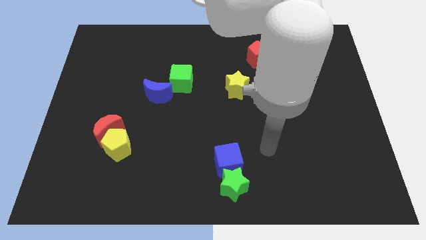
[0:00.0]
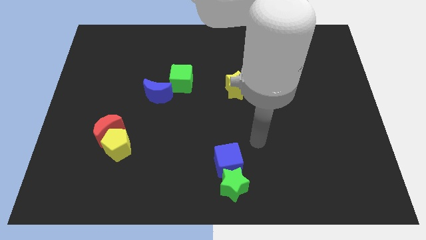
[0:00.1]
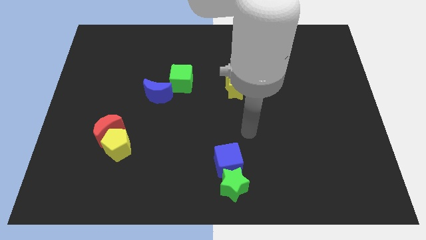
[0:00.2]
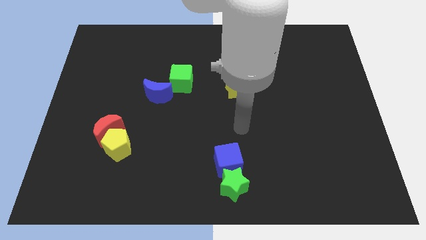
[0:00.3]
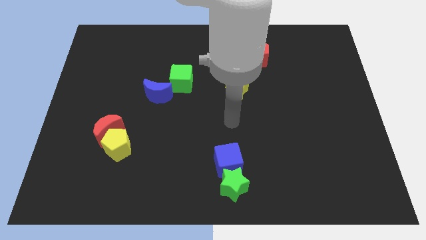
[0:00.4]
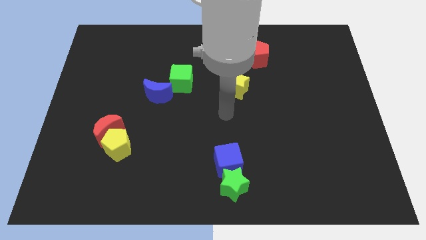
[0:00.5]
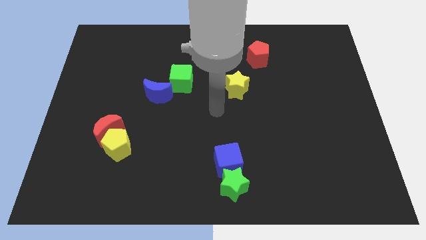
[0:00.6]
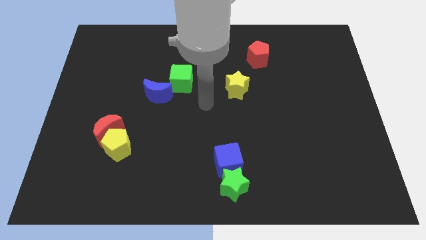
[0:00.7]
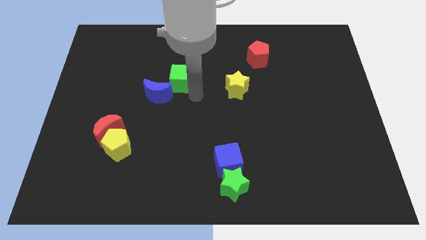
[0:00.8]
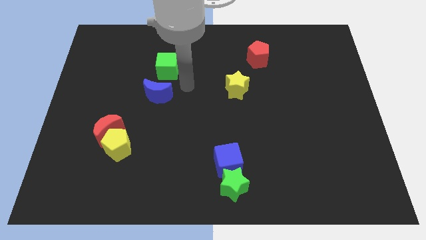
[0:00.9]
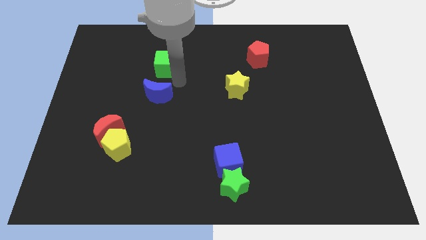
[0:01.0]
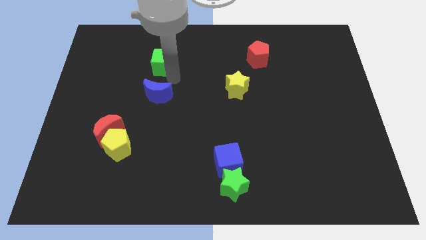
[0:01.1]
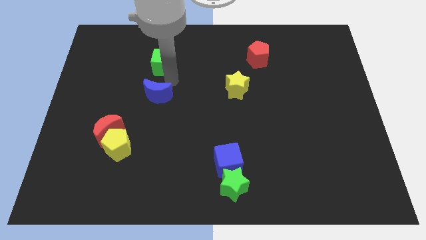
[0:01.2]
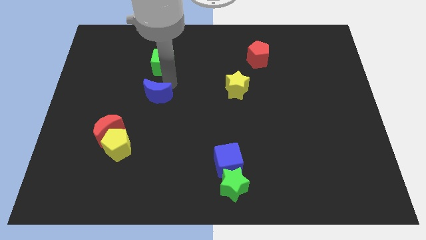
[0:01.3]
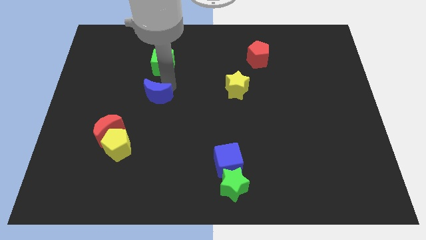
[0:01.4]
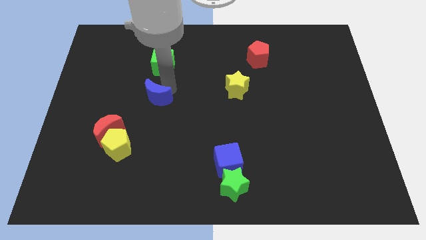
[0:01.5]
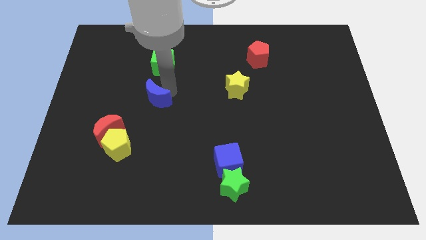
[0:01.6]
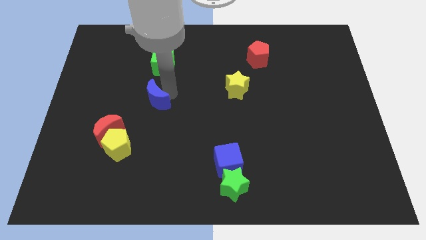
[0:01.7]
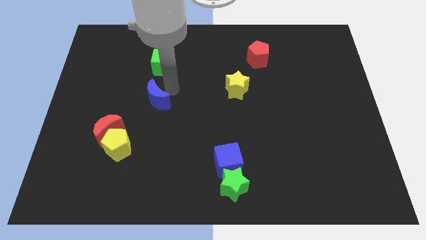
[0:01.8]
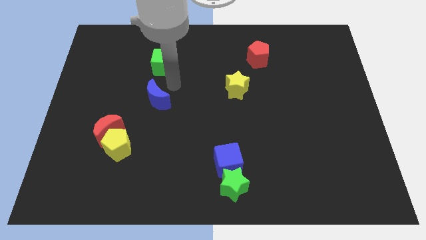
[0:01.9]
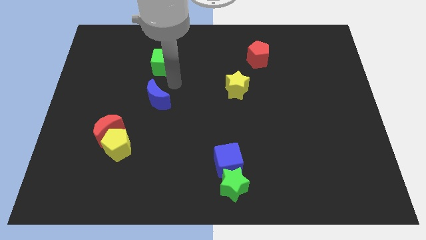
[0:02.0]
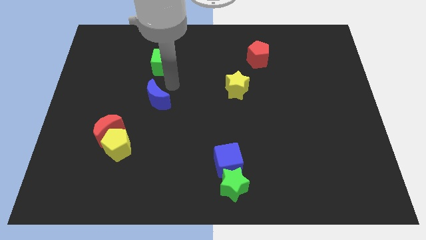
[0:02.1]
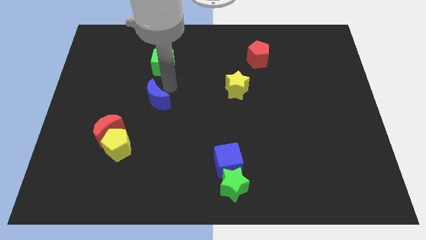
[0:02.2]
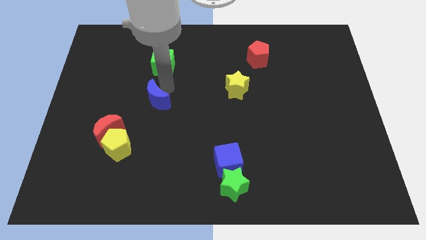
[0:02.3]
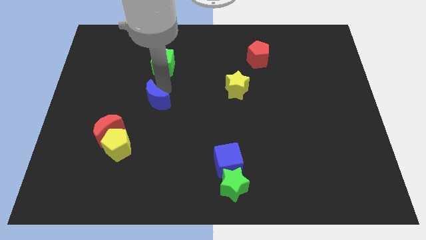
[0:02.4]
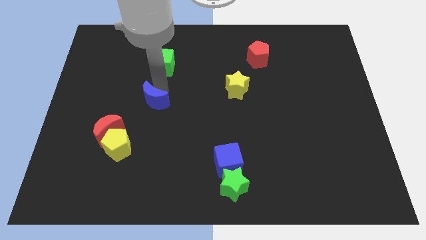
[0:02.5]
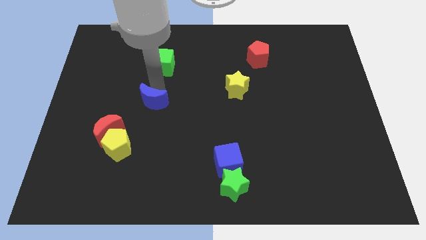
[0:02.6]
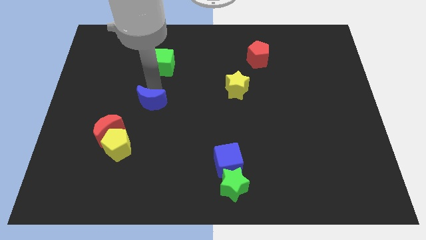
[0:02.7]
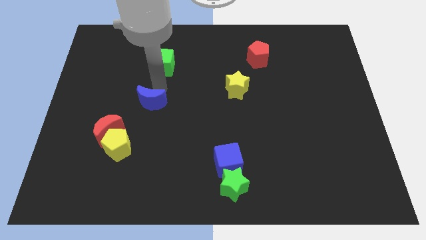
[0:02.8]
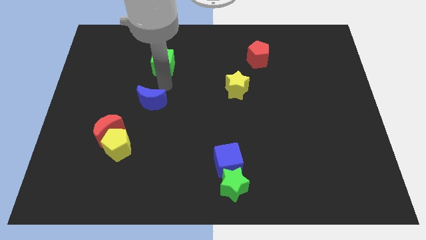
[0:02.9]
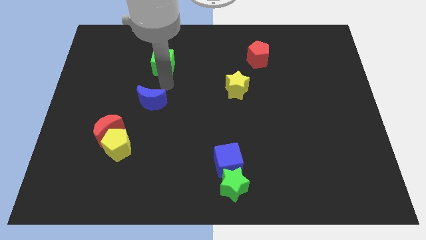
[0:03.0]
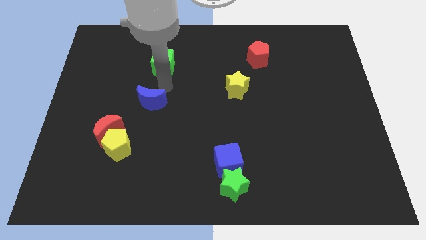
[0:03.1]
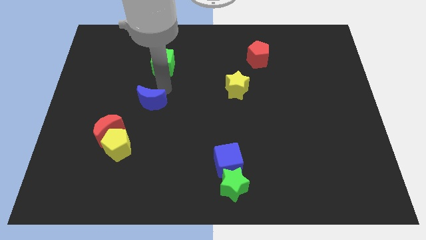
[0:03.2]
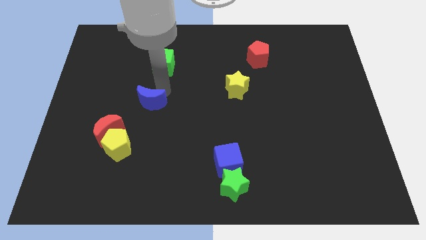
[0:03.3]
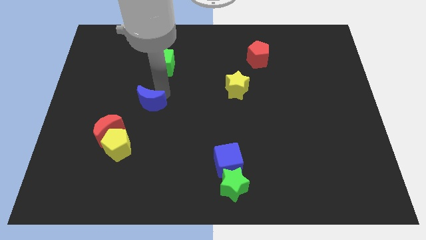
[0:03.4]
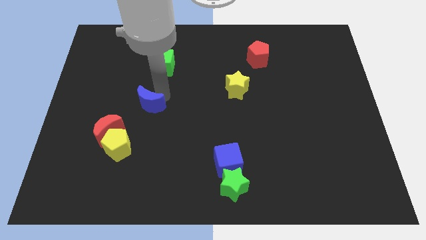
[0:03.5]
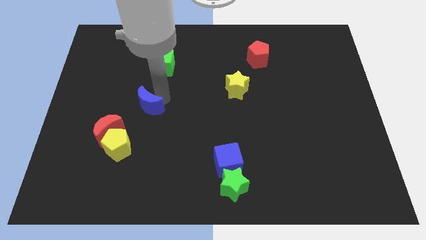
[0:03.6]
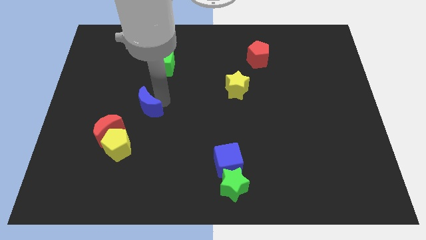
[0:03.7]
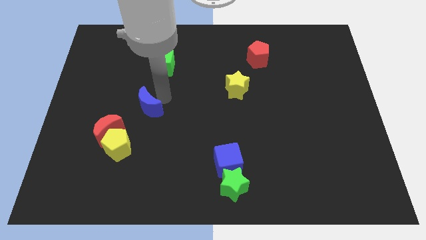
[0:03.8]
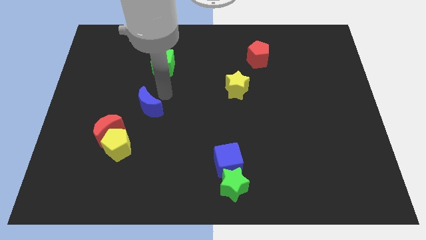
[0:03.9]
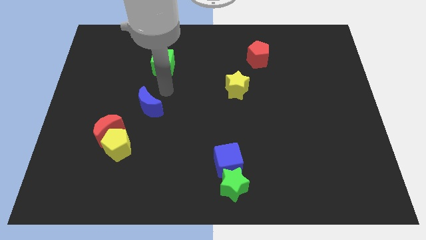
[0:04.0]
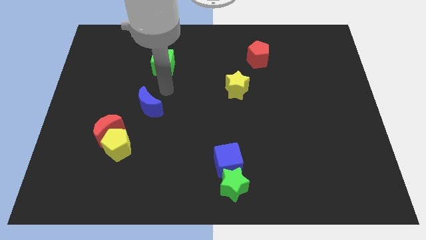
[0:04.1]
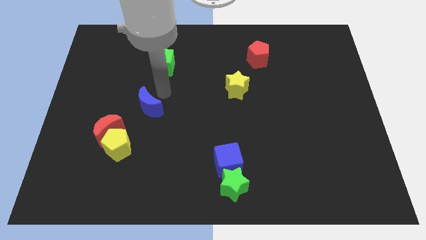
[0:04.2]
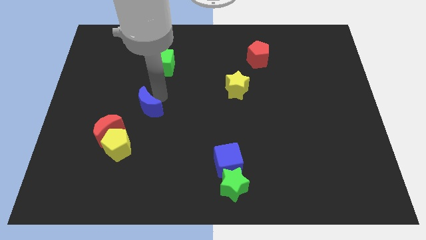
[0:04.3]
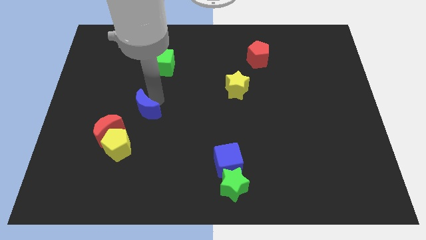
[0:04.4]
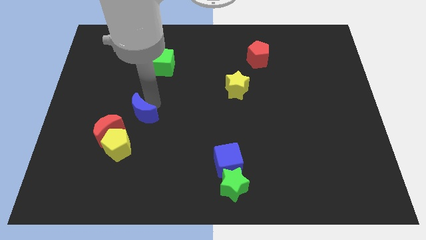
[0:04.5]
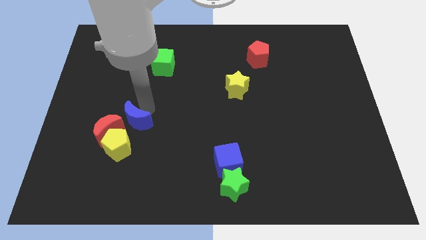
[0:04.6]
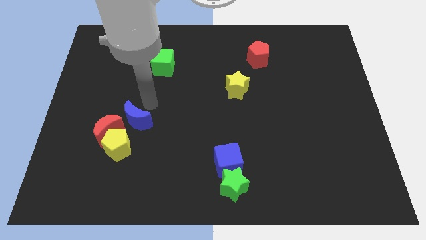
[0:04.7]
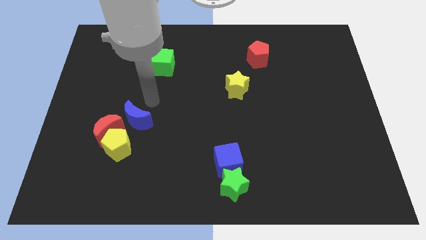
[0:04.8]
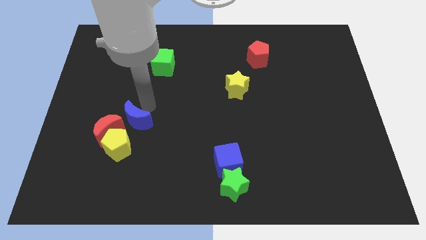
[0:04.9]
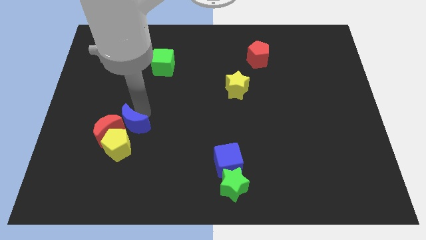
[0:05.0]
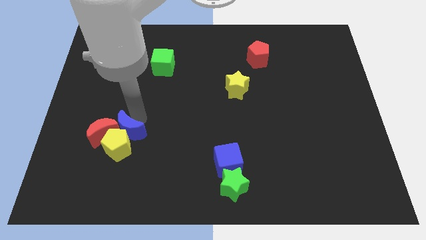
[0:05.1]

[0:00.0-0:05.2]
slide the blue moon close to the yellow pentagon

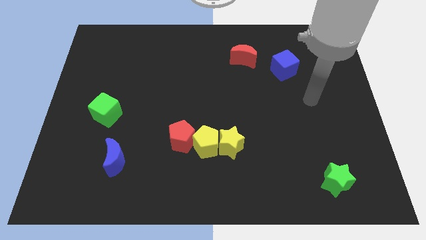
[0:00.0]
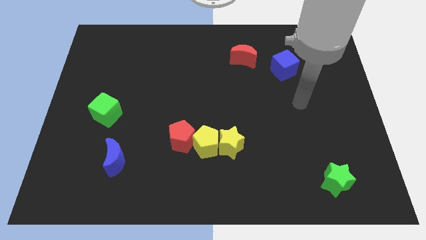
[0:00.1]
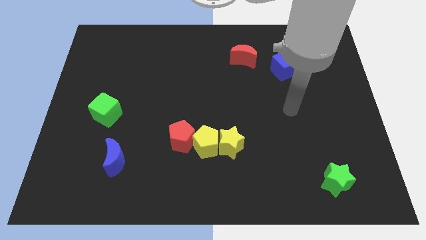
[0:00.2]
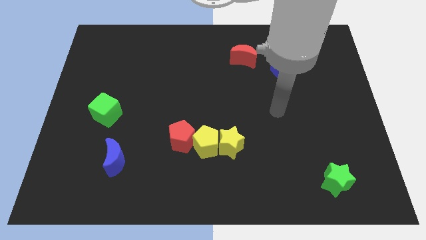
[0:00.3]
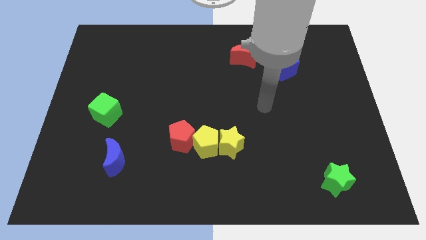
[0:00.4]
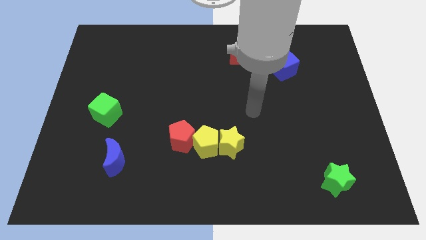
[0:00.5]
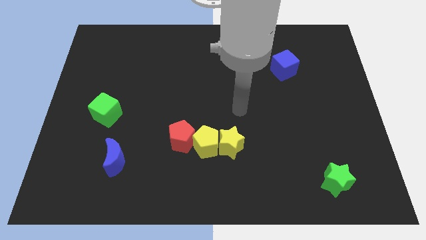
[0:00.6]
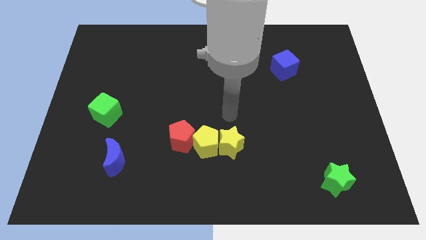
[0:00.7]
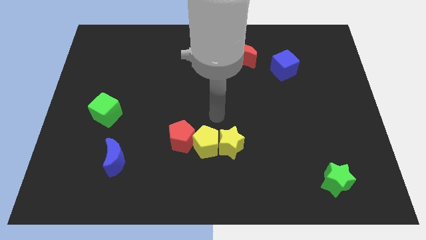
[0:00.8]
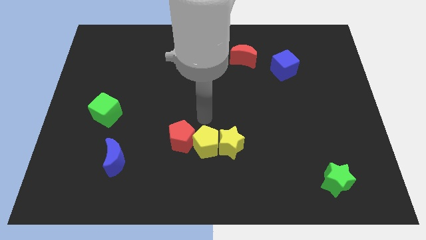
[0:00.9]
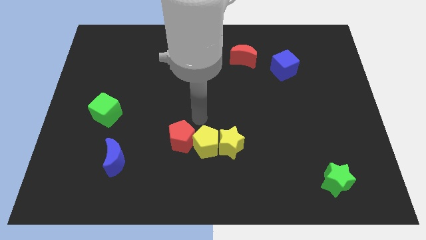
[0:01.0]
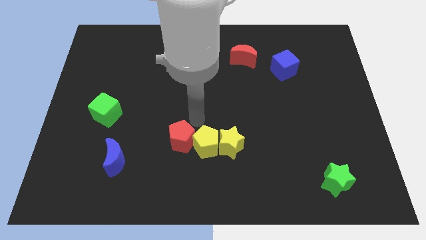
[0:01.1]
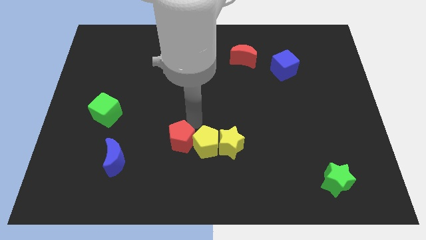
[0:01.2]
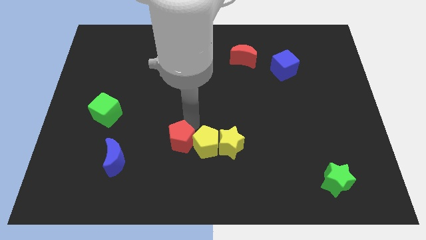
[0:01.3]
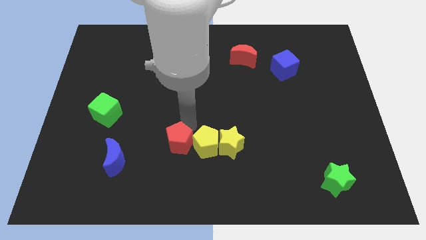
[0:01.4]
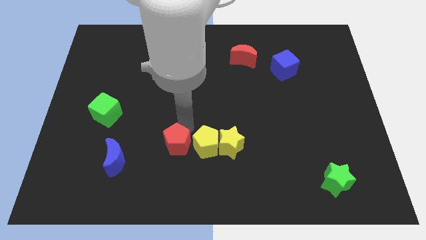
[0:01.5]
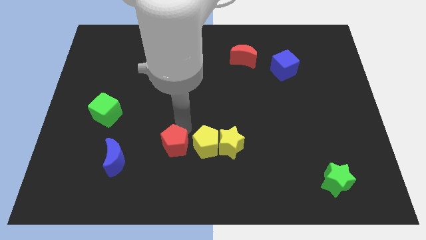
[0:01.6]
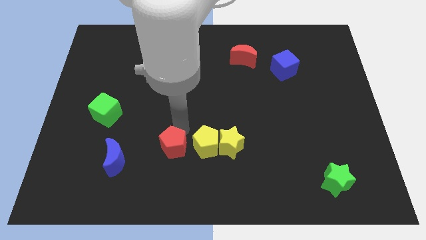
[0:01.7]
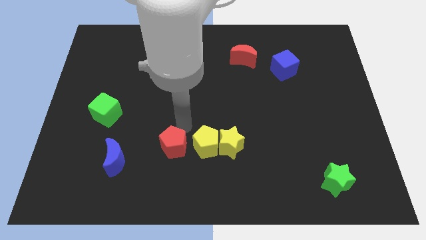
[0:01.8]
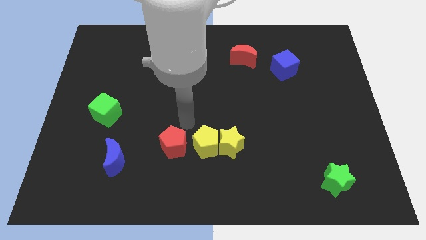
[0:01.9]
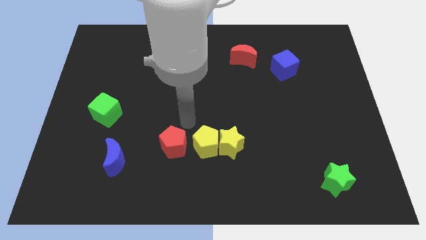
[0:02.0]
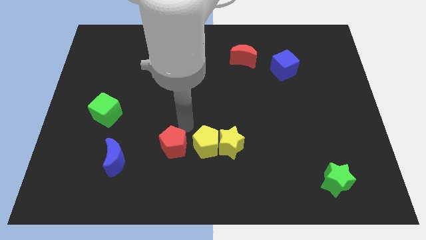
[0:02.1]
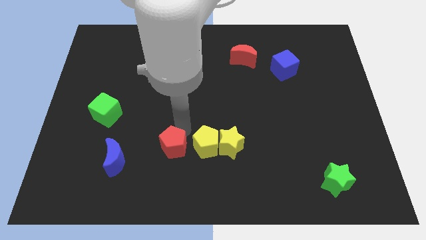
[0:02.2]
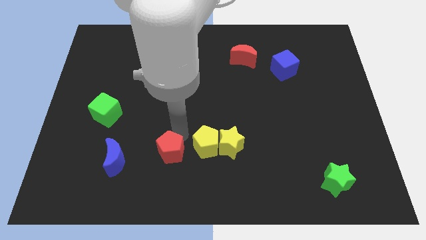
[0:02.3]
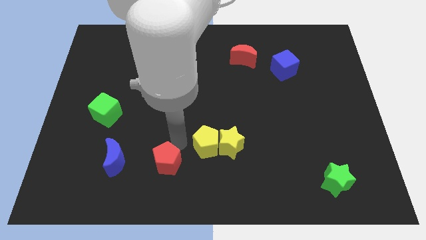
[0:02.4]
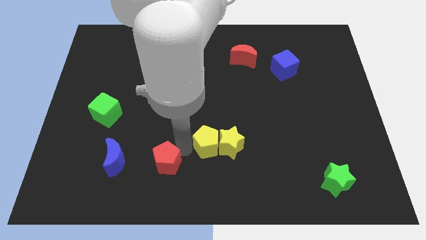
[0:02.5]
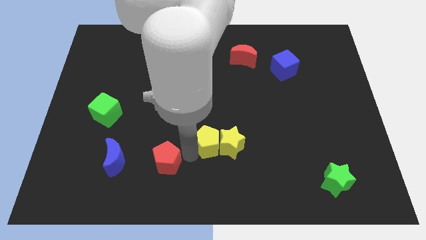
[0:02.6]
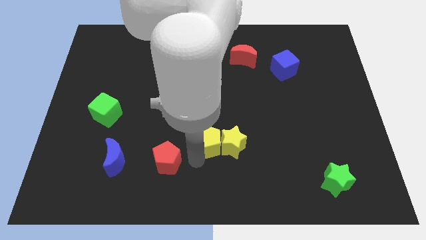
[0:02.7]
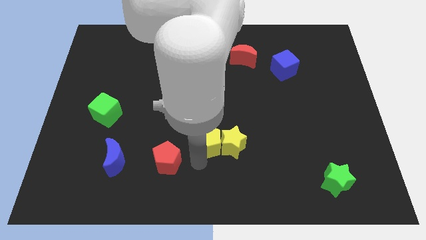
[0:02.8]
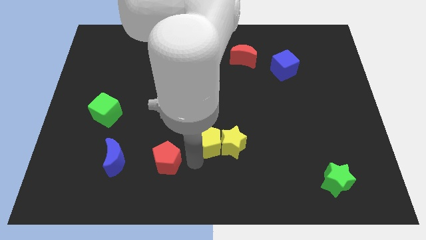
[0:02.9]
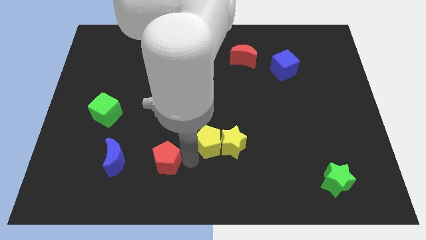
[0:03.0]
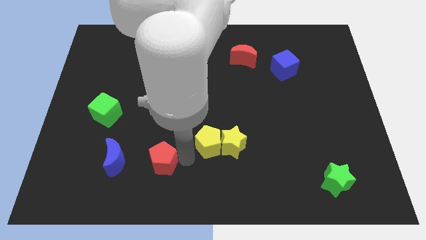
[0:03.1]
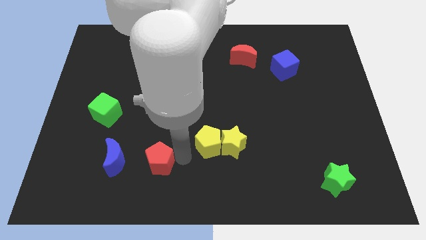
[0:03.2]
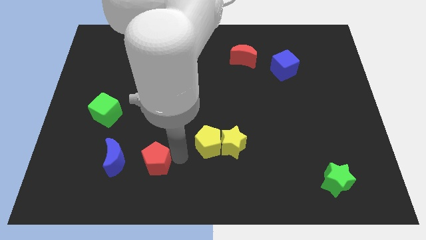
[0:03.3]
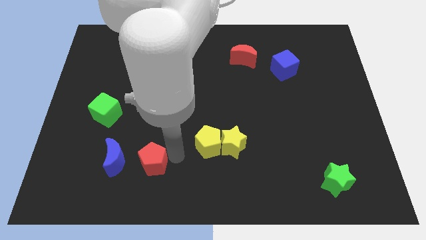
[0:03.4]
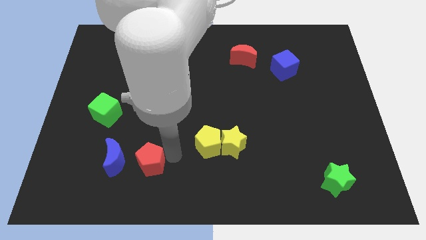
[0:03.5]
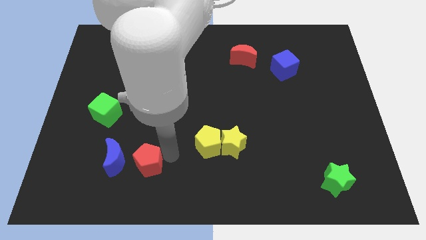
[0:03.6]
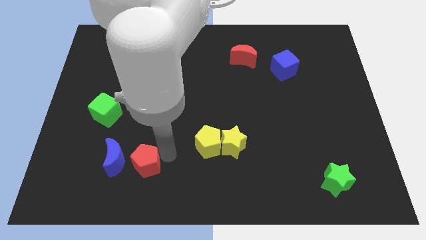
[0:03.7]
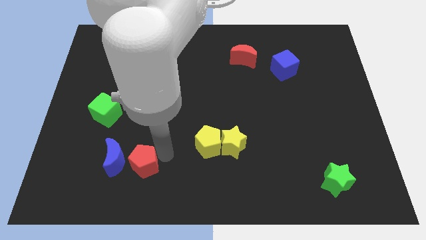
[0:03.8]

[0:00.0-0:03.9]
put the red pentagon towards the blue moon
